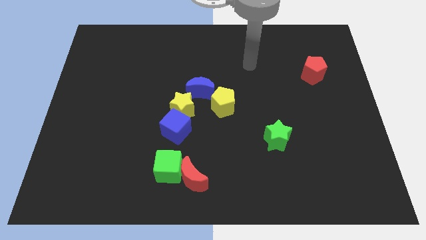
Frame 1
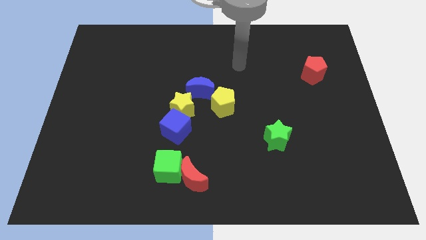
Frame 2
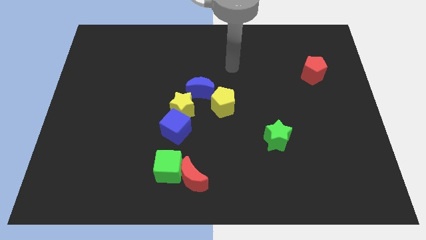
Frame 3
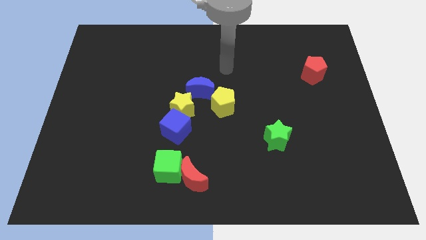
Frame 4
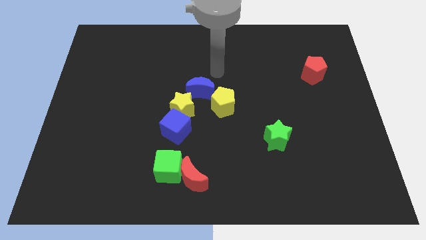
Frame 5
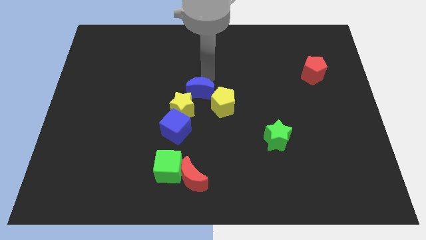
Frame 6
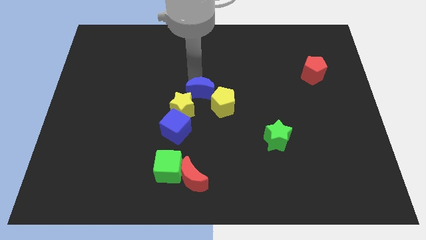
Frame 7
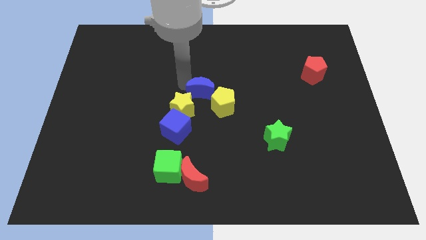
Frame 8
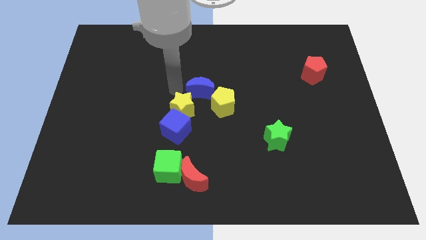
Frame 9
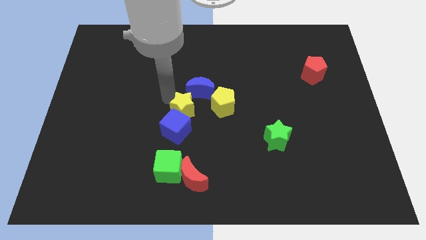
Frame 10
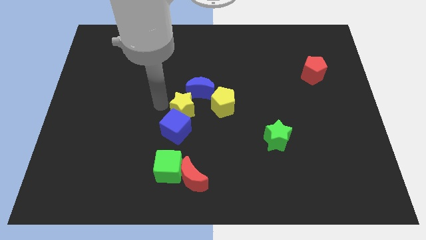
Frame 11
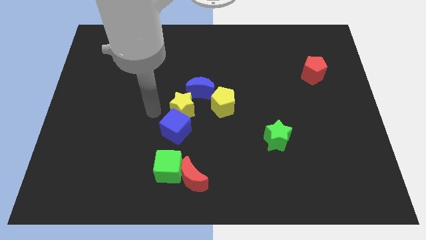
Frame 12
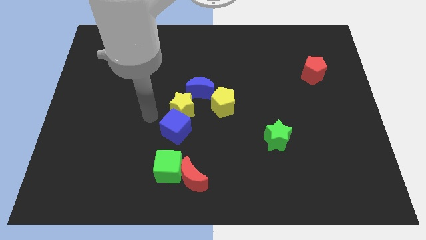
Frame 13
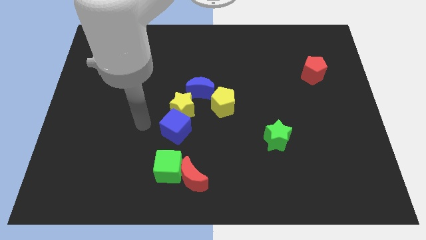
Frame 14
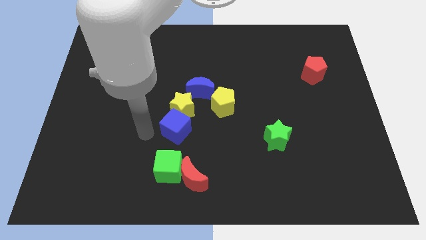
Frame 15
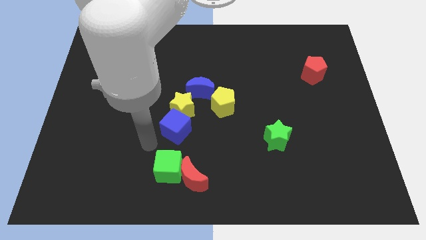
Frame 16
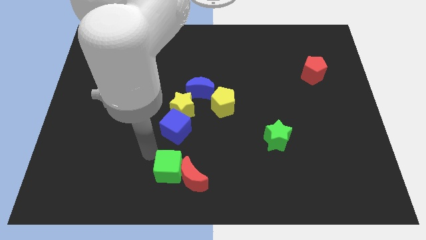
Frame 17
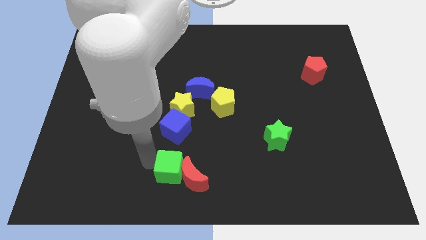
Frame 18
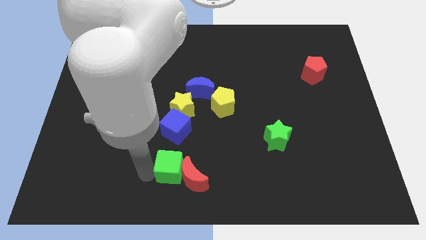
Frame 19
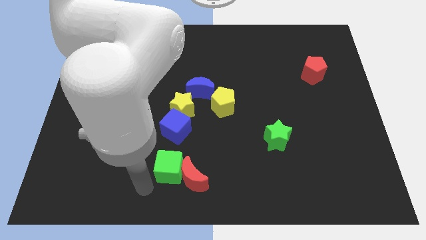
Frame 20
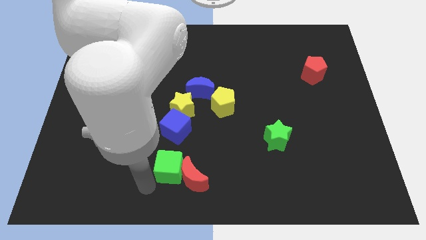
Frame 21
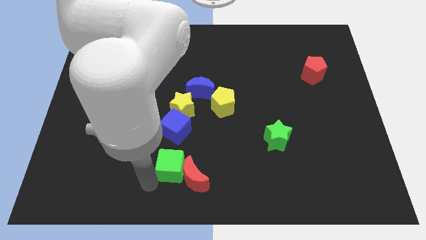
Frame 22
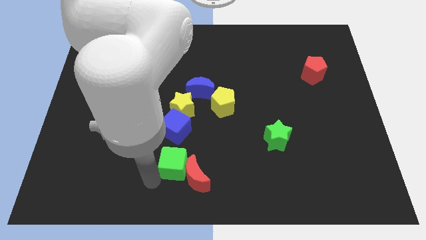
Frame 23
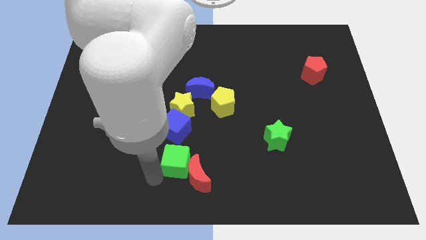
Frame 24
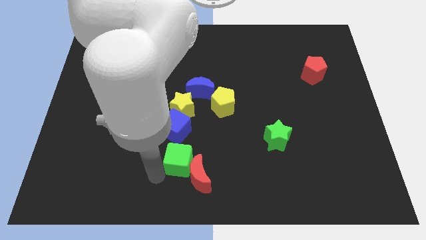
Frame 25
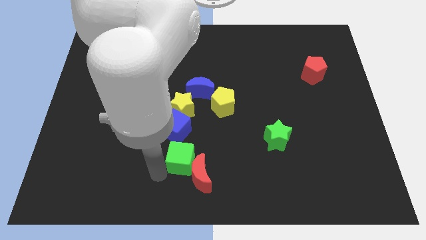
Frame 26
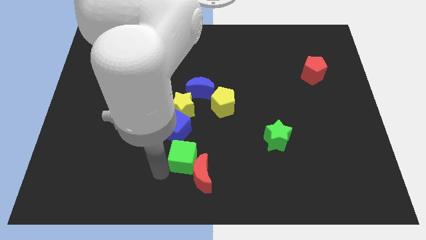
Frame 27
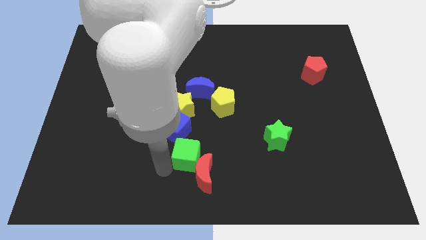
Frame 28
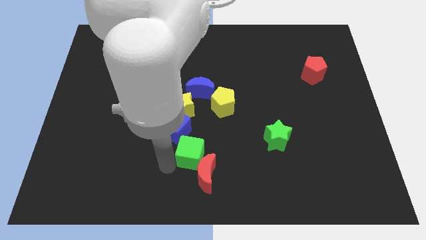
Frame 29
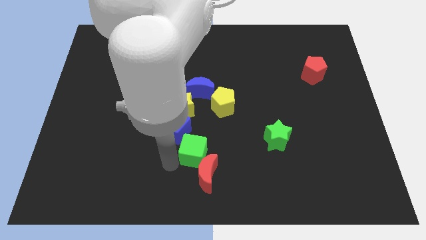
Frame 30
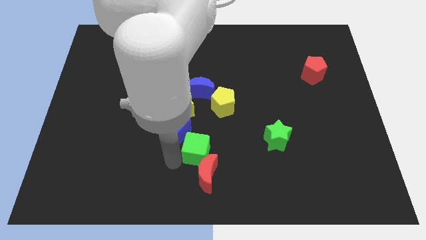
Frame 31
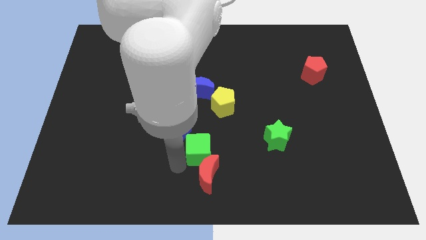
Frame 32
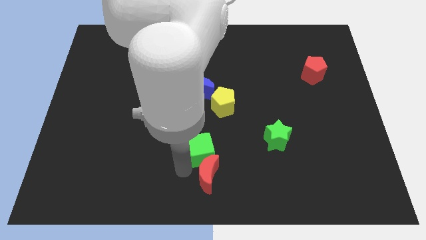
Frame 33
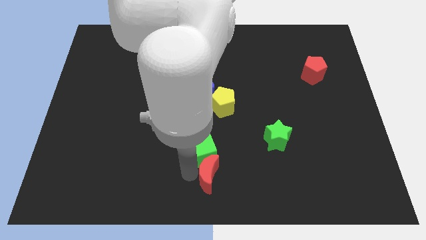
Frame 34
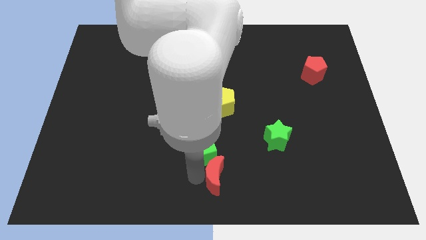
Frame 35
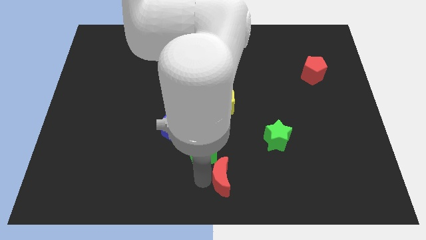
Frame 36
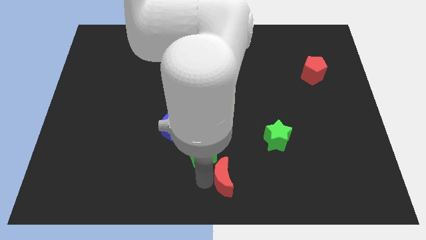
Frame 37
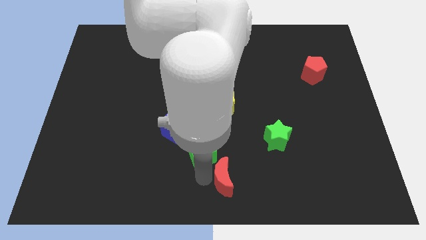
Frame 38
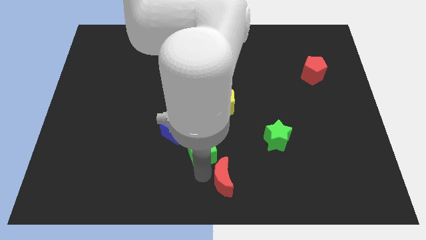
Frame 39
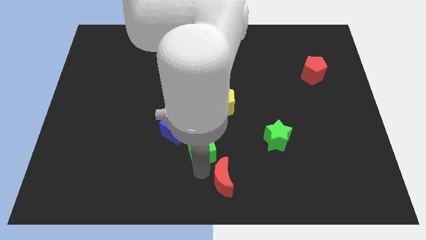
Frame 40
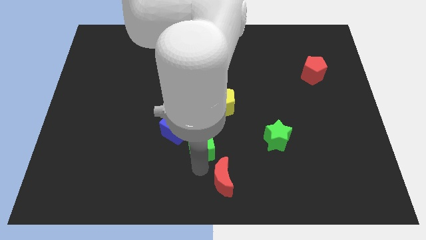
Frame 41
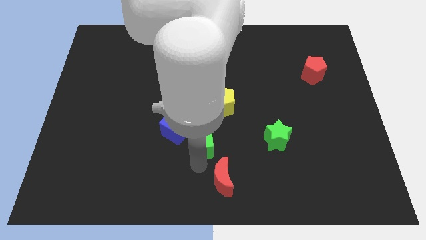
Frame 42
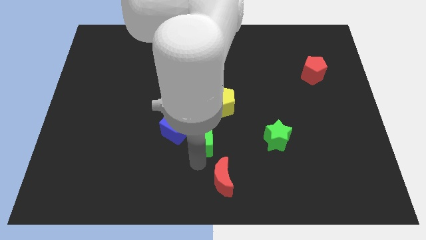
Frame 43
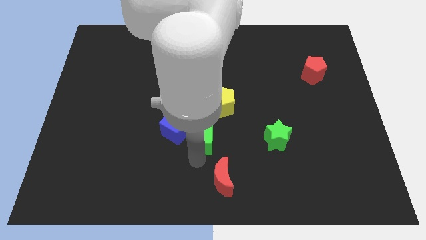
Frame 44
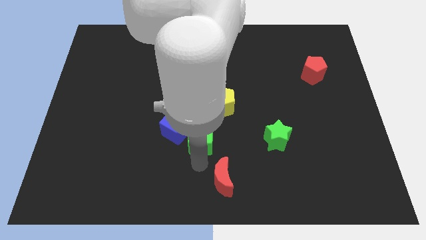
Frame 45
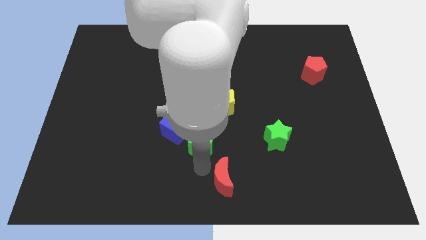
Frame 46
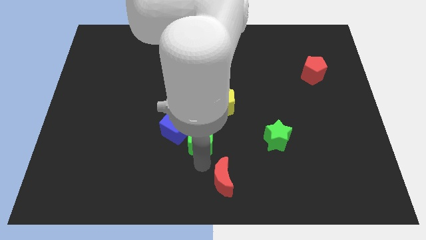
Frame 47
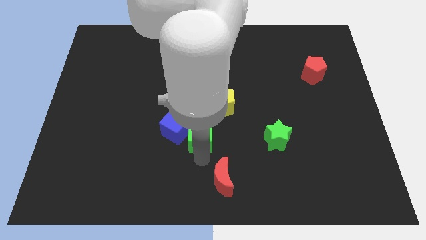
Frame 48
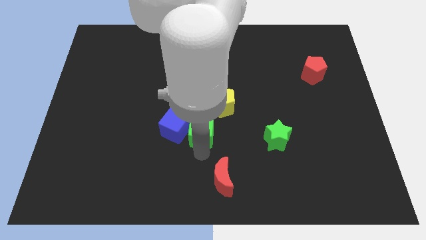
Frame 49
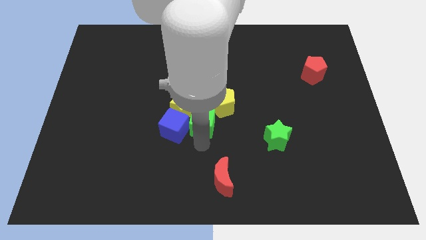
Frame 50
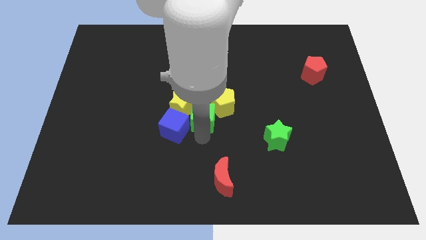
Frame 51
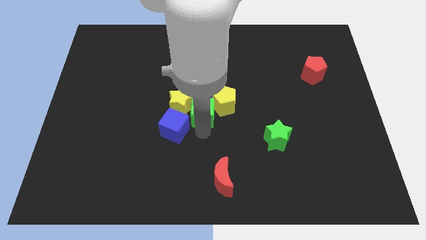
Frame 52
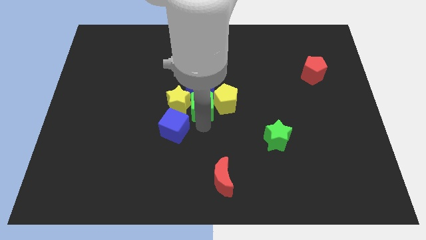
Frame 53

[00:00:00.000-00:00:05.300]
move the green cube to the blue moon
